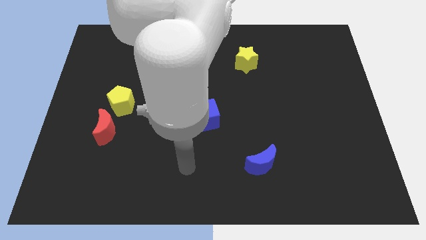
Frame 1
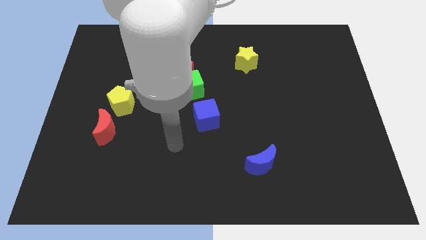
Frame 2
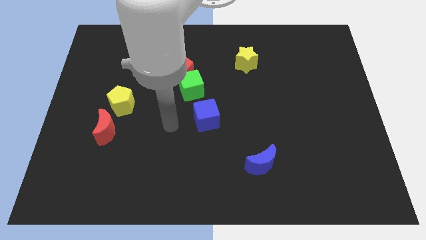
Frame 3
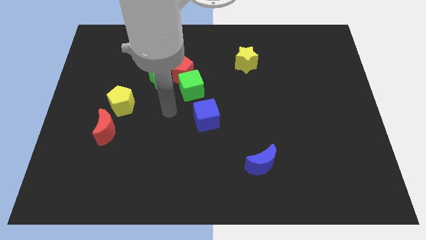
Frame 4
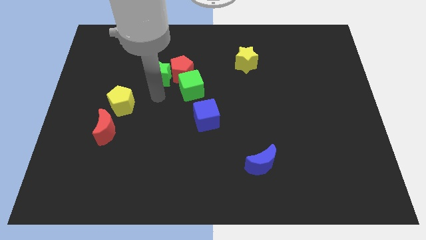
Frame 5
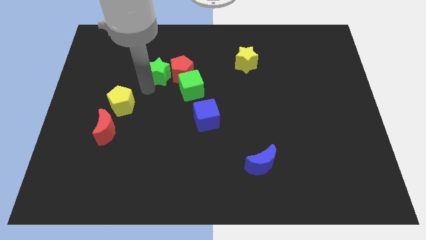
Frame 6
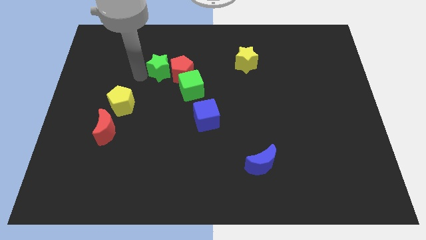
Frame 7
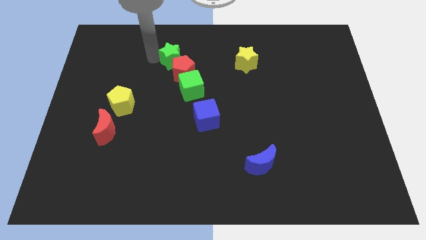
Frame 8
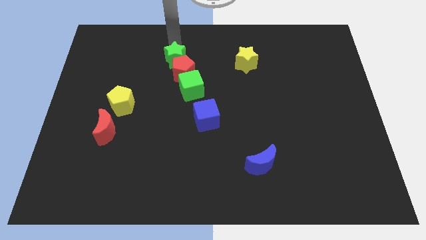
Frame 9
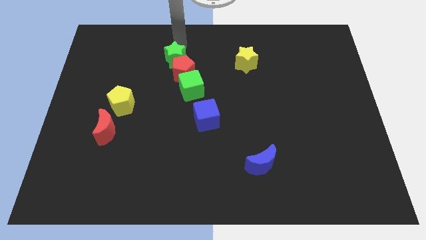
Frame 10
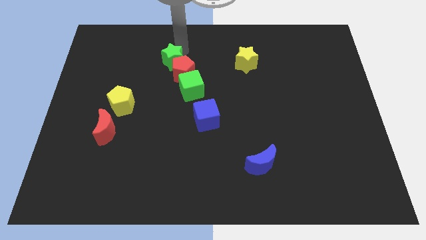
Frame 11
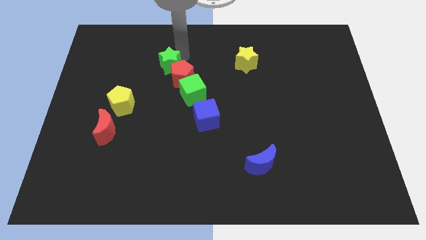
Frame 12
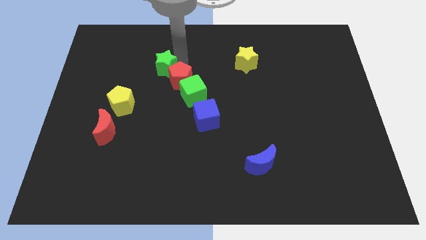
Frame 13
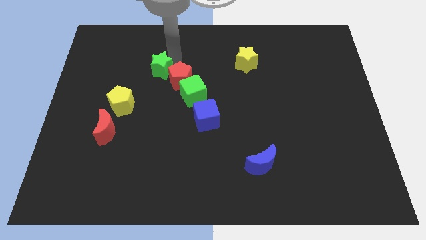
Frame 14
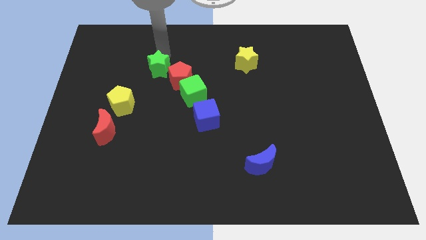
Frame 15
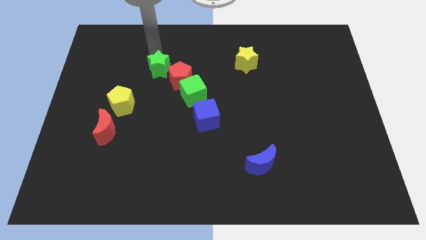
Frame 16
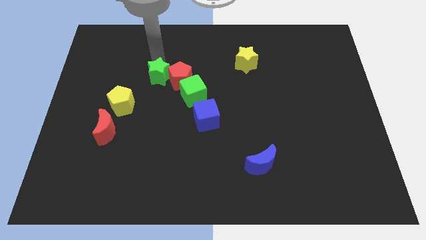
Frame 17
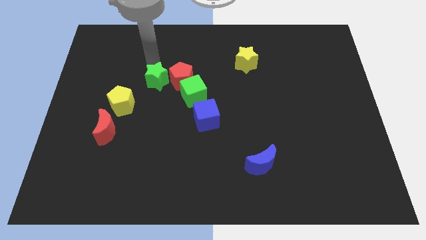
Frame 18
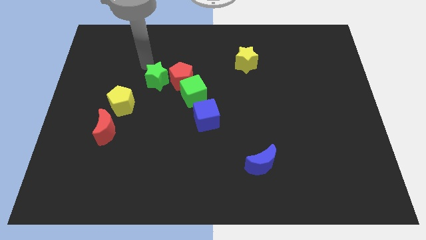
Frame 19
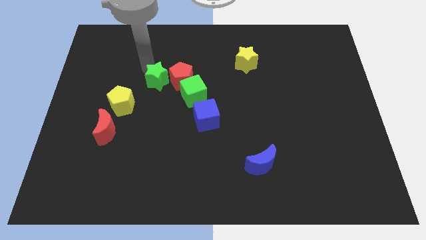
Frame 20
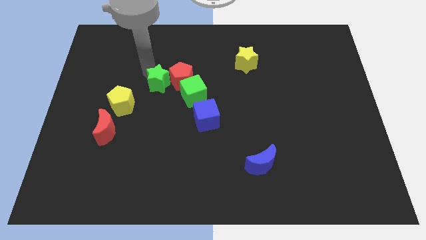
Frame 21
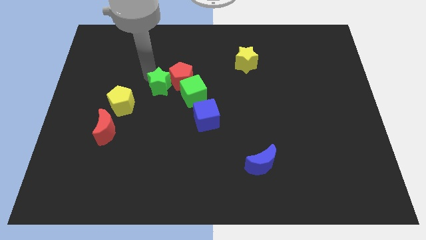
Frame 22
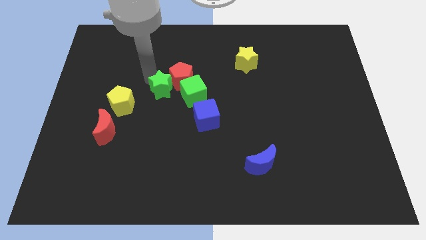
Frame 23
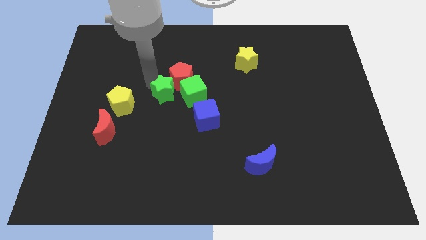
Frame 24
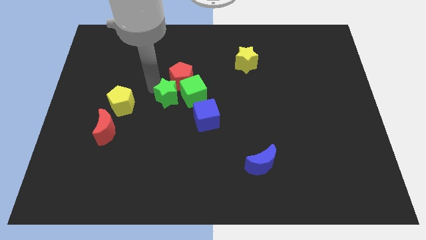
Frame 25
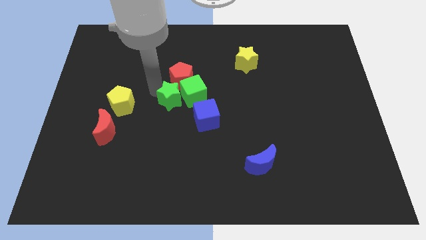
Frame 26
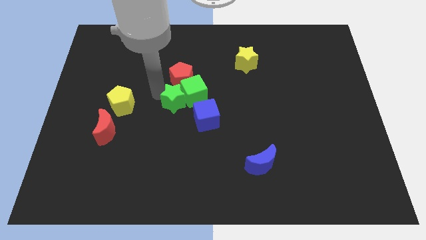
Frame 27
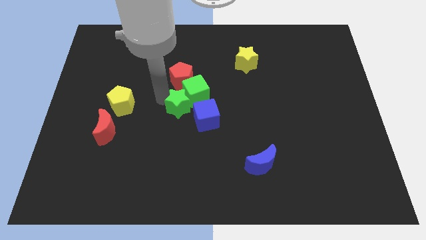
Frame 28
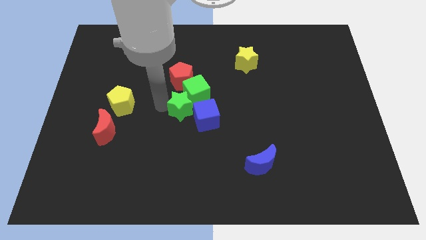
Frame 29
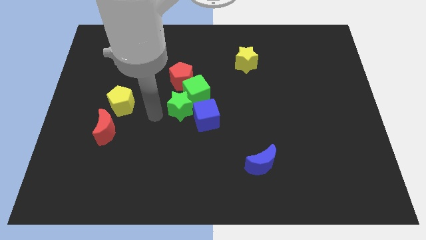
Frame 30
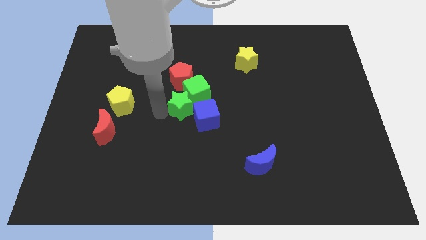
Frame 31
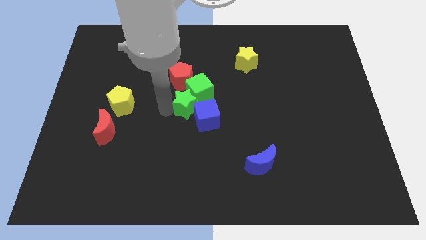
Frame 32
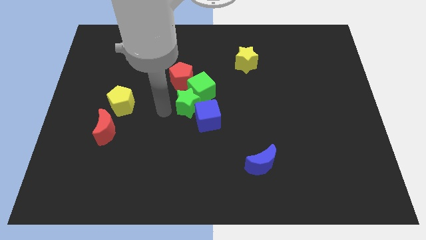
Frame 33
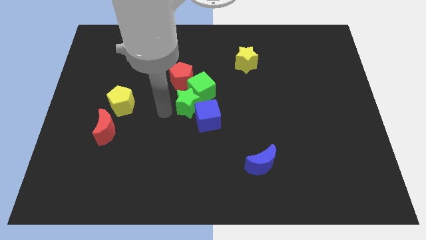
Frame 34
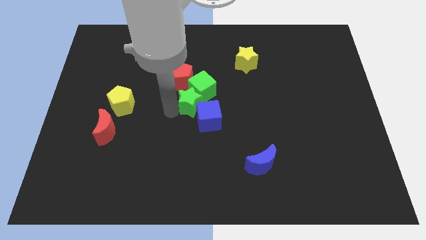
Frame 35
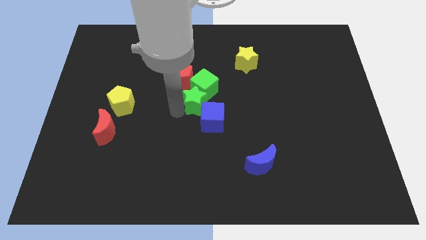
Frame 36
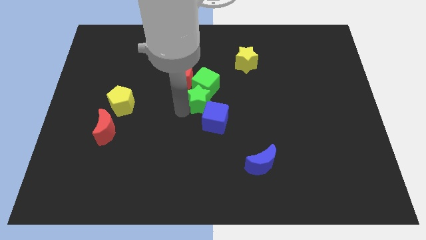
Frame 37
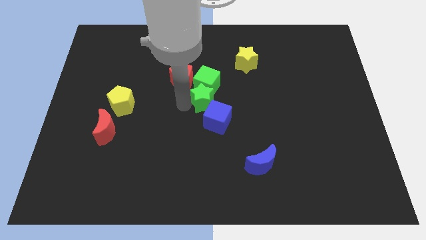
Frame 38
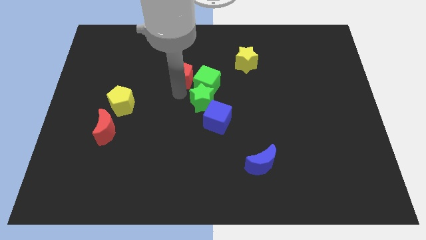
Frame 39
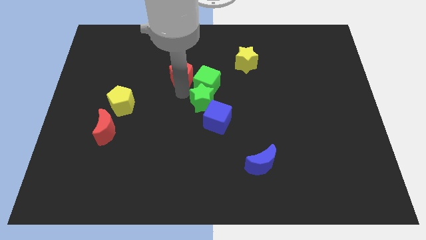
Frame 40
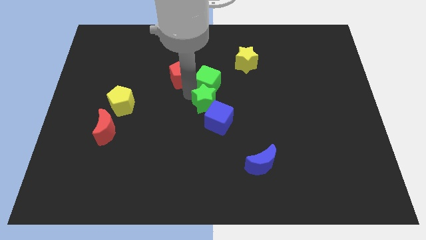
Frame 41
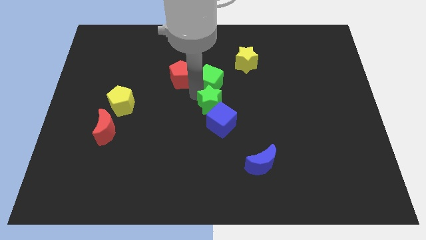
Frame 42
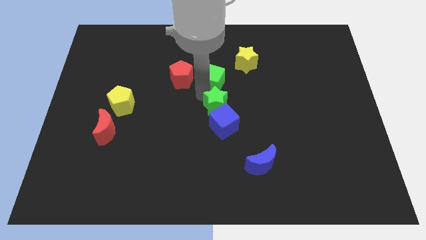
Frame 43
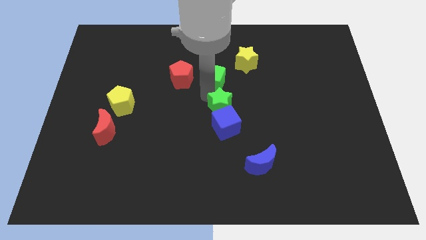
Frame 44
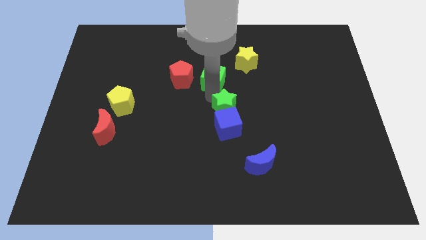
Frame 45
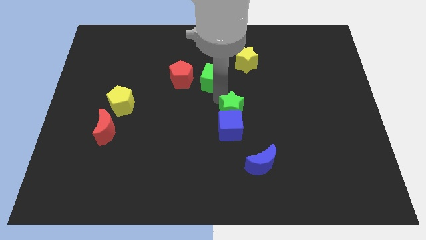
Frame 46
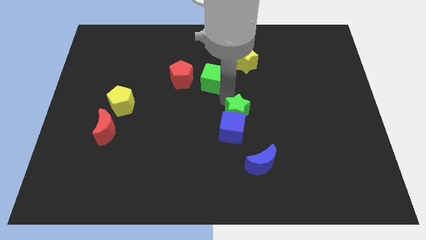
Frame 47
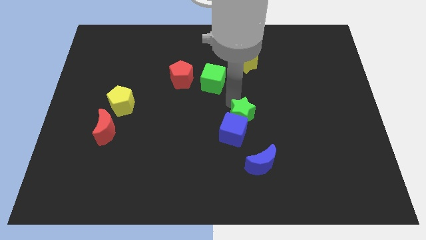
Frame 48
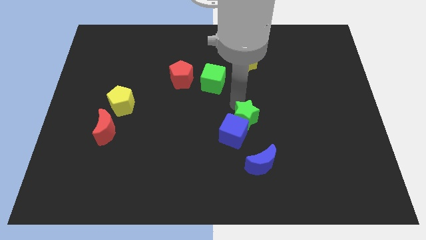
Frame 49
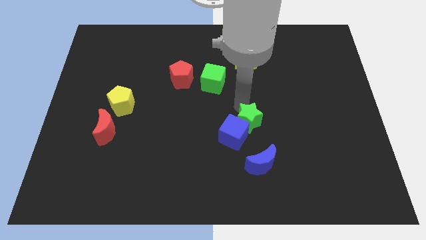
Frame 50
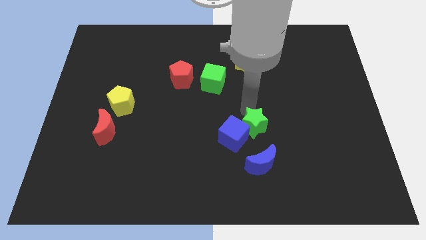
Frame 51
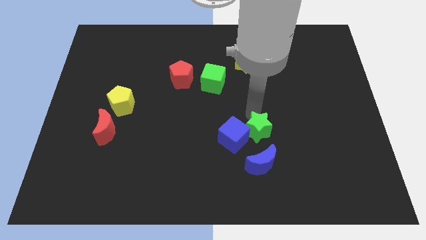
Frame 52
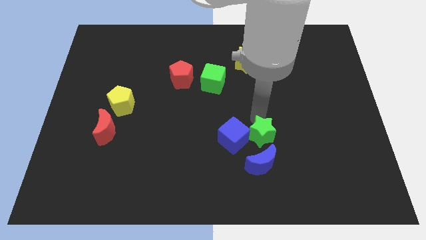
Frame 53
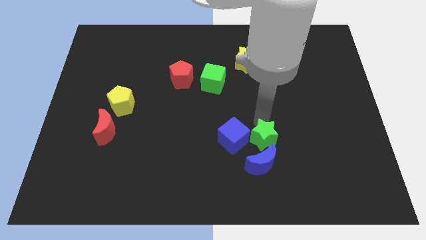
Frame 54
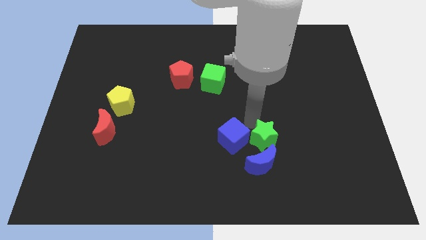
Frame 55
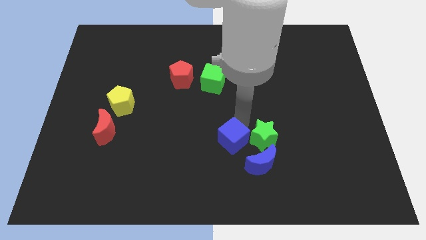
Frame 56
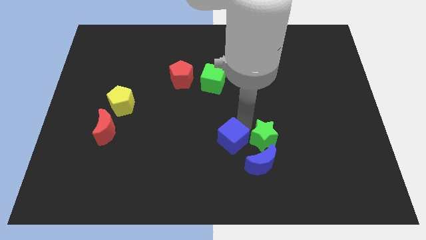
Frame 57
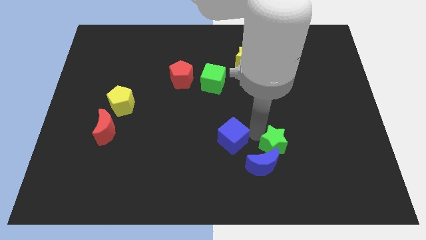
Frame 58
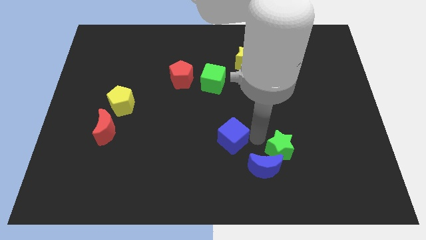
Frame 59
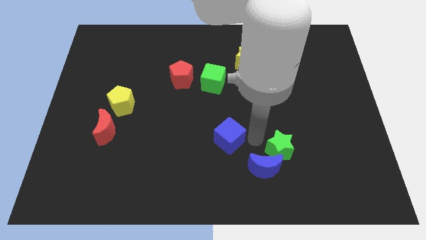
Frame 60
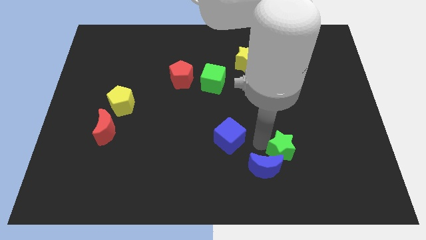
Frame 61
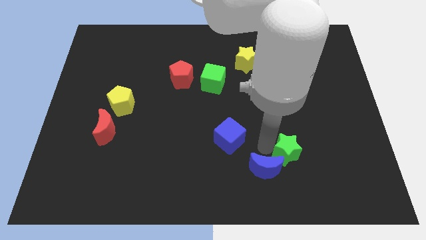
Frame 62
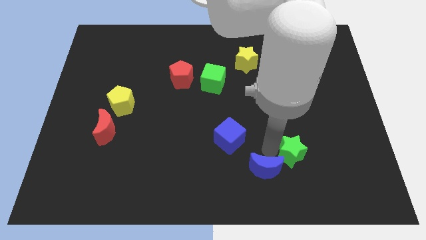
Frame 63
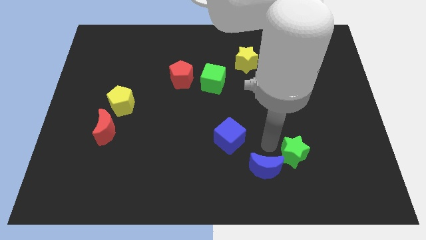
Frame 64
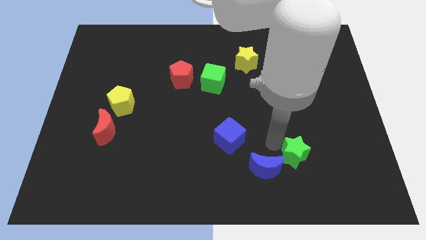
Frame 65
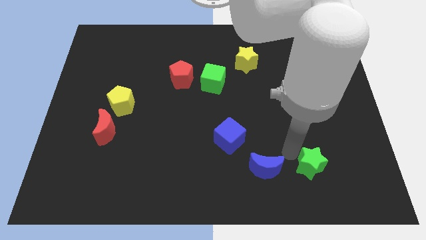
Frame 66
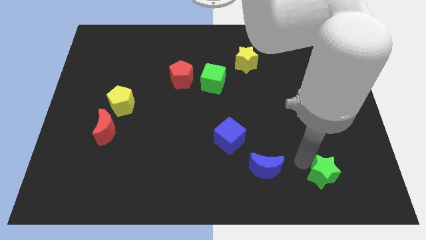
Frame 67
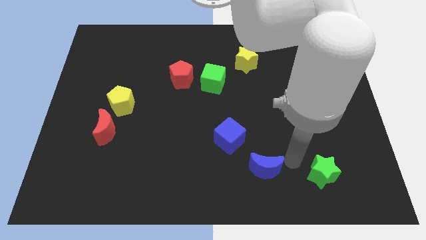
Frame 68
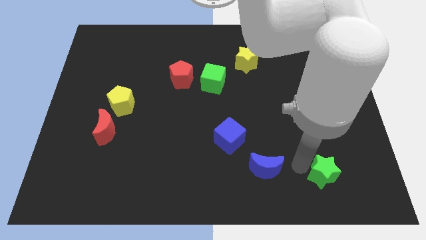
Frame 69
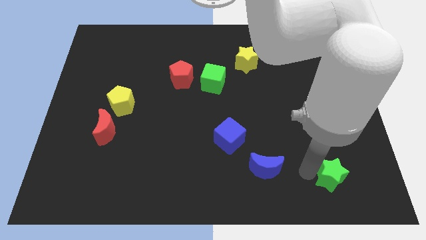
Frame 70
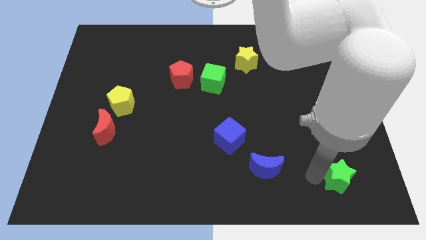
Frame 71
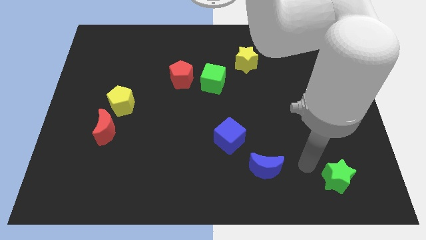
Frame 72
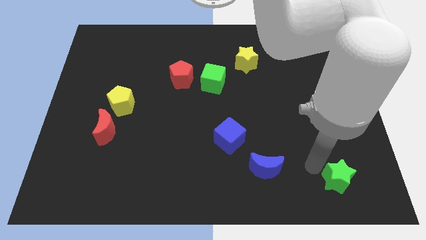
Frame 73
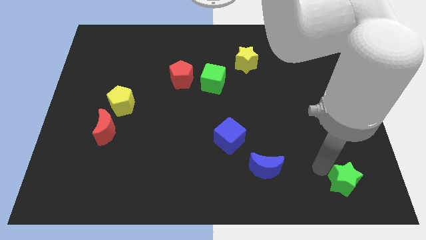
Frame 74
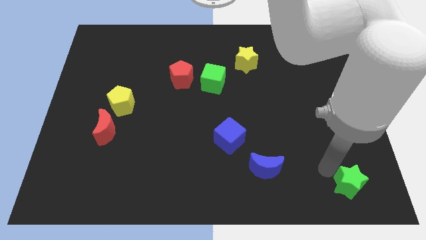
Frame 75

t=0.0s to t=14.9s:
put the green star to the lower right corner
